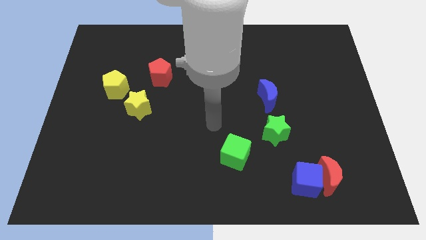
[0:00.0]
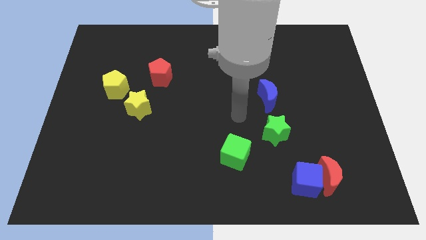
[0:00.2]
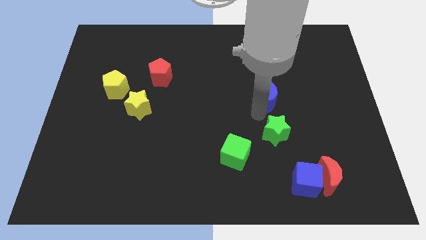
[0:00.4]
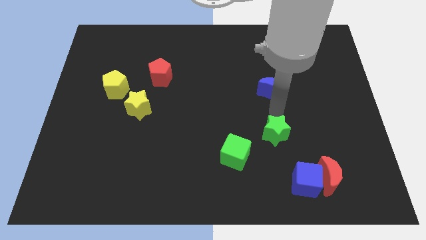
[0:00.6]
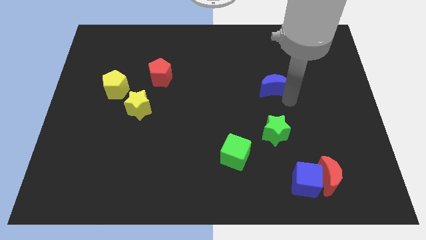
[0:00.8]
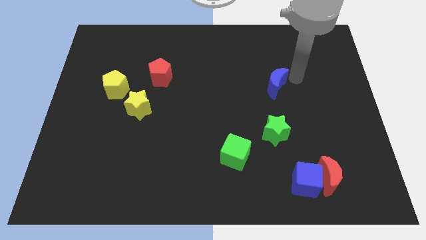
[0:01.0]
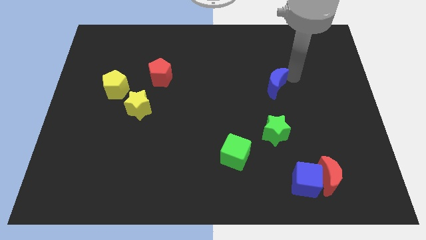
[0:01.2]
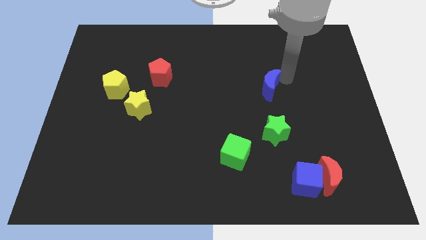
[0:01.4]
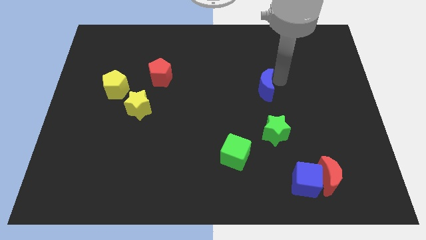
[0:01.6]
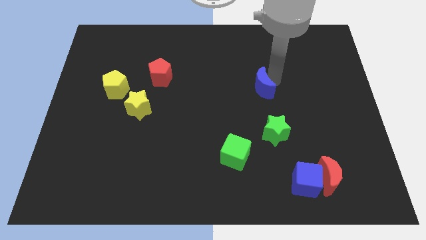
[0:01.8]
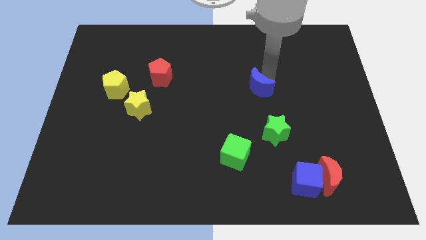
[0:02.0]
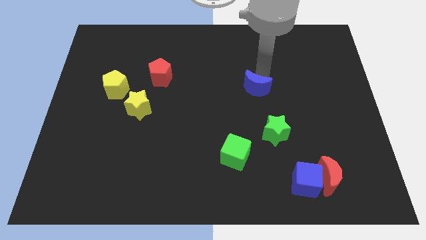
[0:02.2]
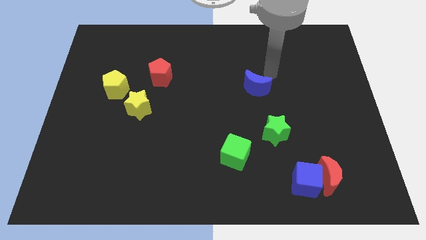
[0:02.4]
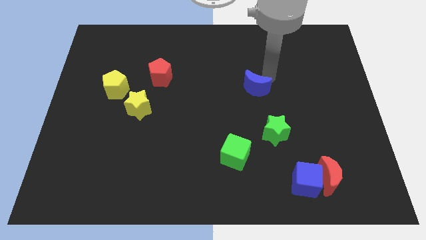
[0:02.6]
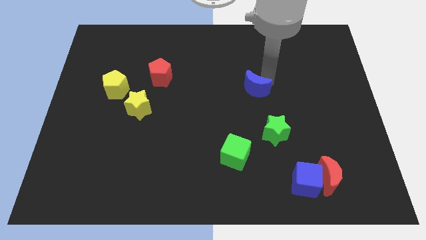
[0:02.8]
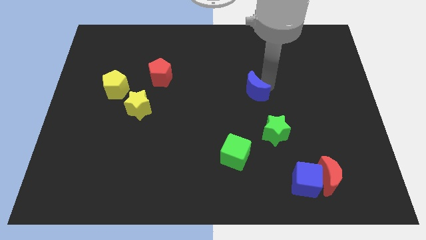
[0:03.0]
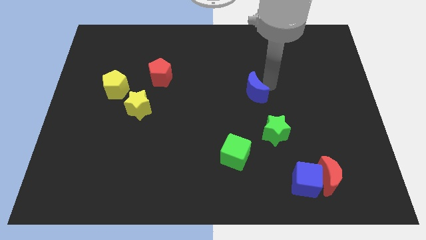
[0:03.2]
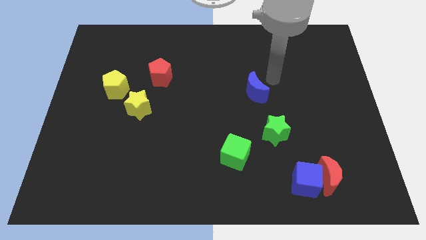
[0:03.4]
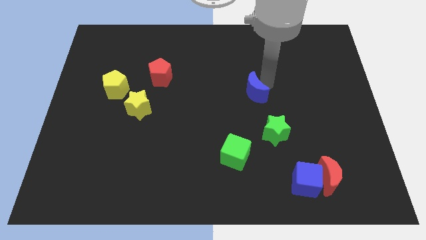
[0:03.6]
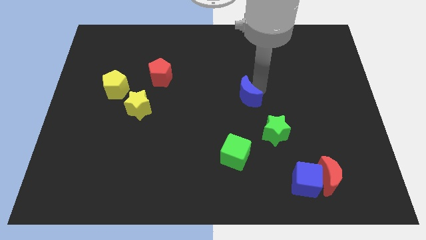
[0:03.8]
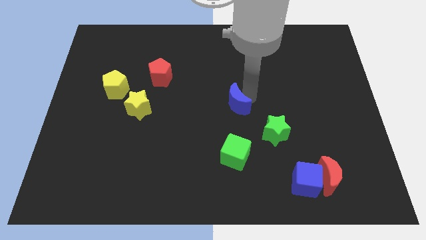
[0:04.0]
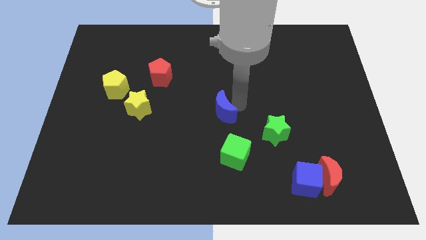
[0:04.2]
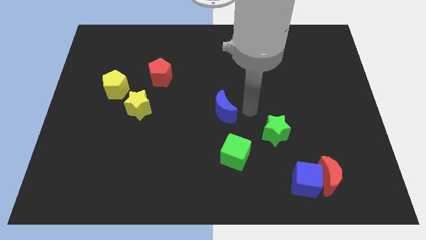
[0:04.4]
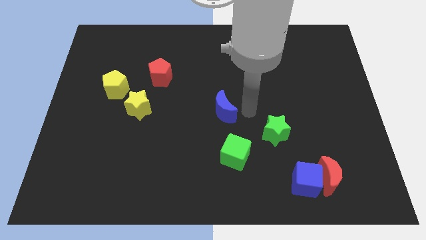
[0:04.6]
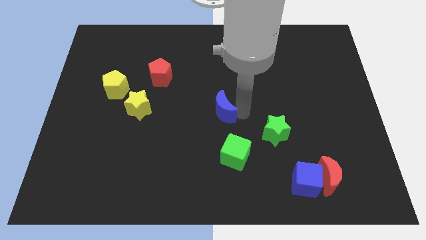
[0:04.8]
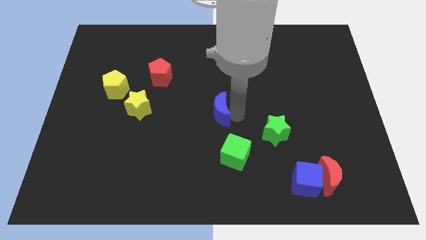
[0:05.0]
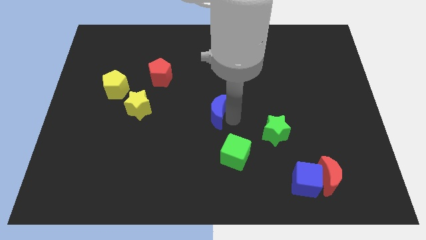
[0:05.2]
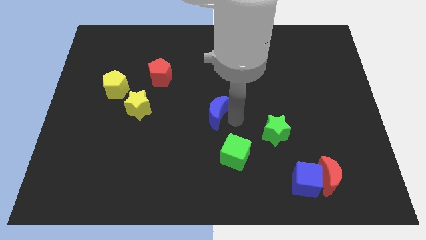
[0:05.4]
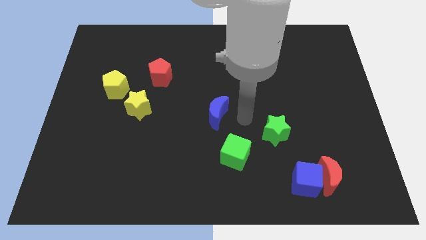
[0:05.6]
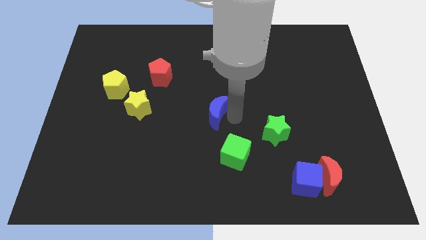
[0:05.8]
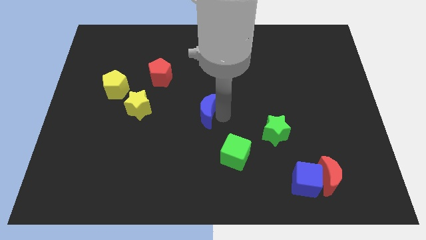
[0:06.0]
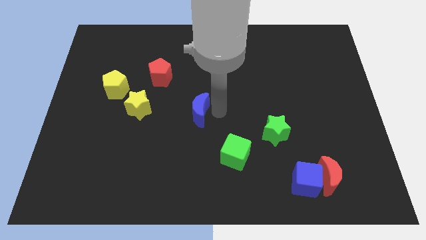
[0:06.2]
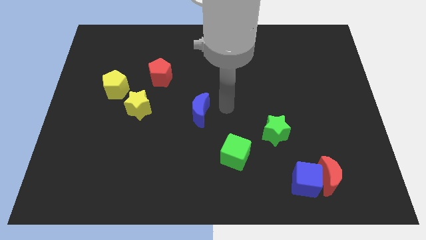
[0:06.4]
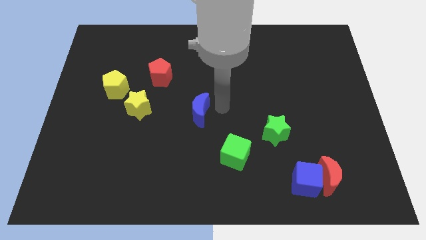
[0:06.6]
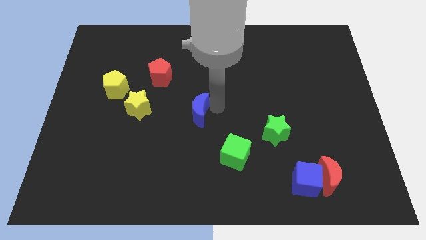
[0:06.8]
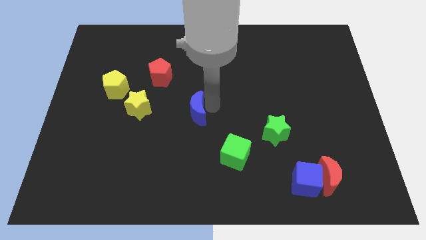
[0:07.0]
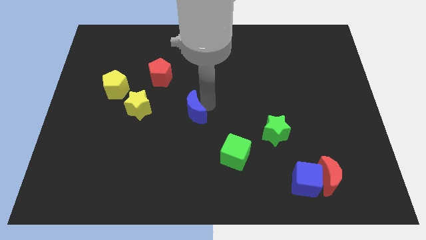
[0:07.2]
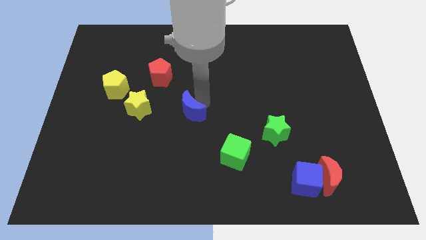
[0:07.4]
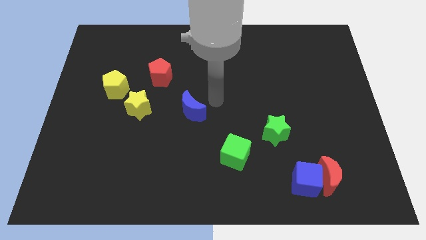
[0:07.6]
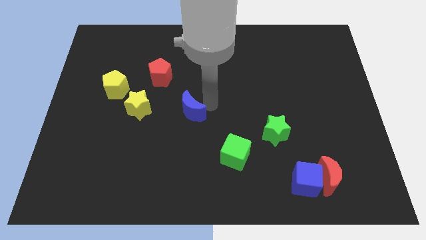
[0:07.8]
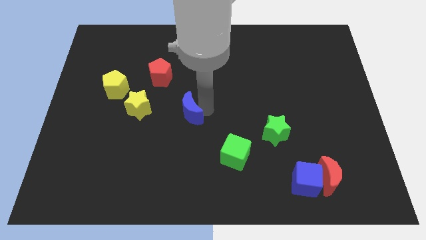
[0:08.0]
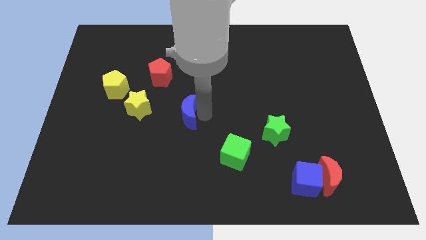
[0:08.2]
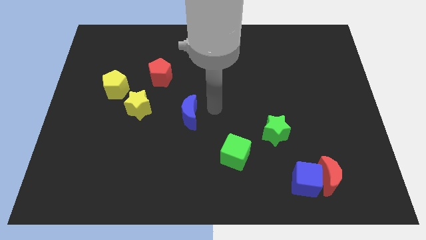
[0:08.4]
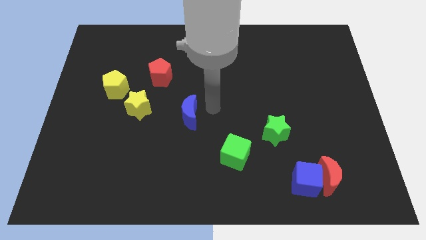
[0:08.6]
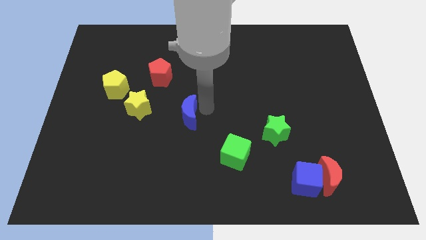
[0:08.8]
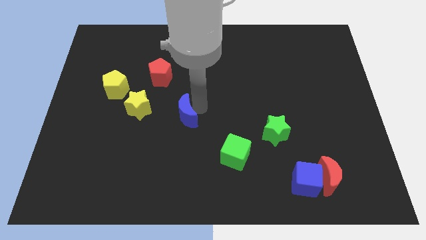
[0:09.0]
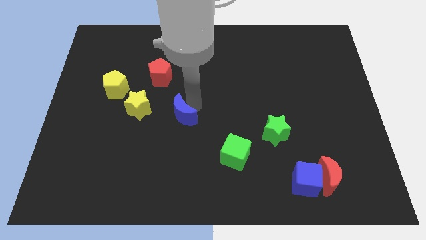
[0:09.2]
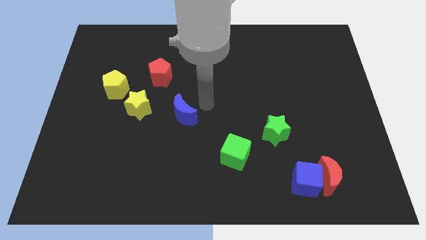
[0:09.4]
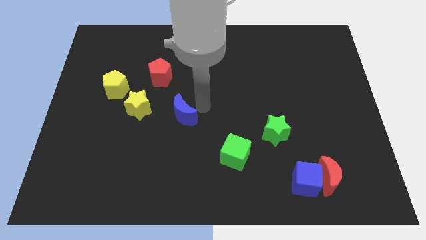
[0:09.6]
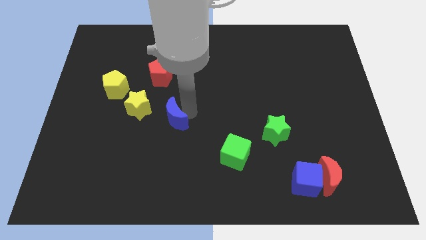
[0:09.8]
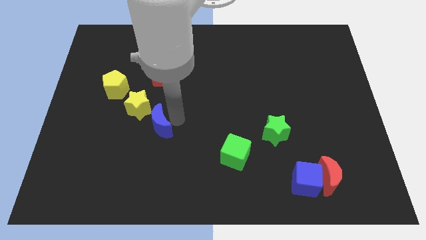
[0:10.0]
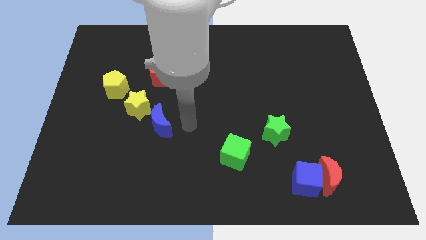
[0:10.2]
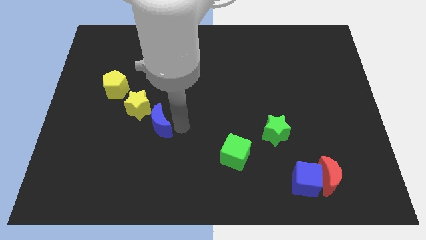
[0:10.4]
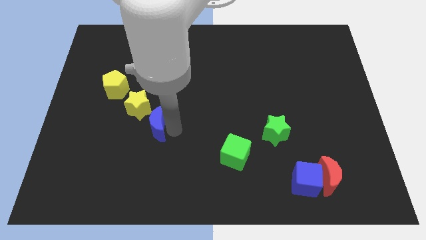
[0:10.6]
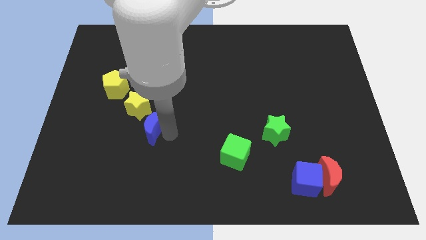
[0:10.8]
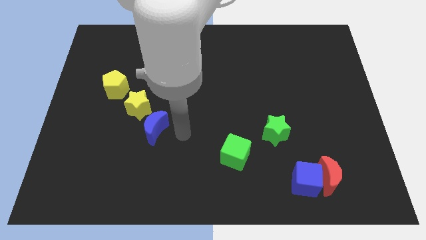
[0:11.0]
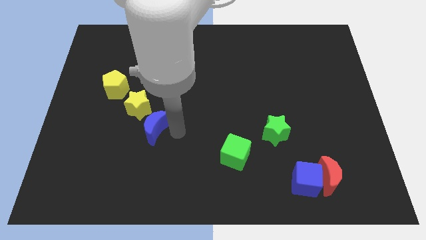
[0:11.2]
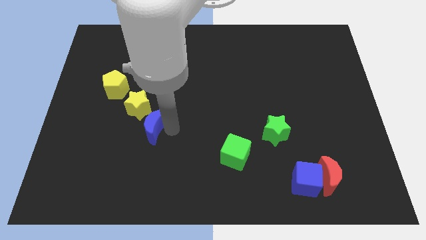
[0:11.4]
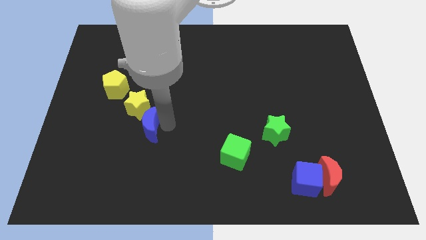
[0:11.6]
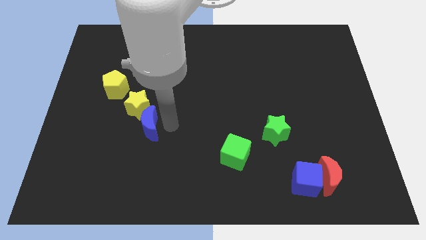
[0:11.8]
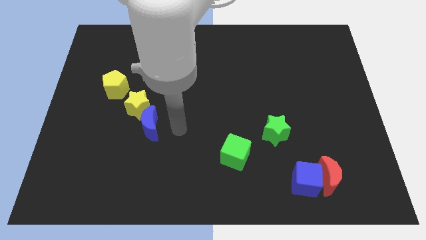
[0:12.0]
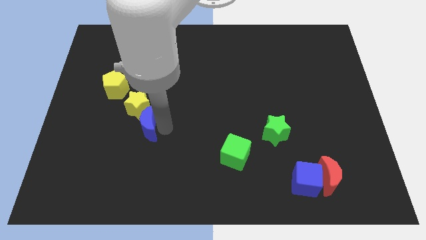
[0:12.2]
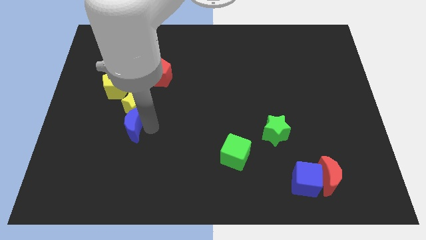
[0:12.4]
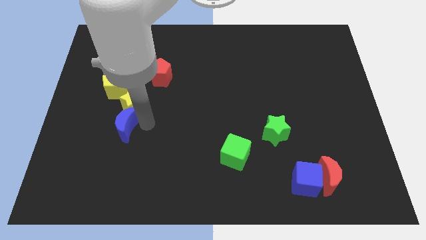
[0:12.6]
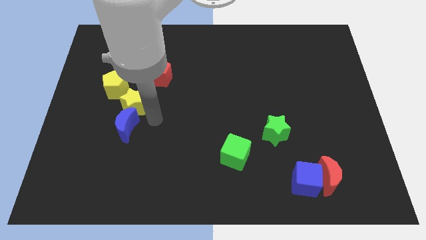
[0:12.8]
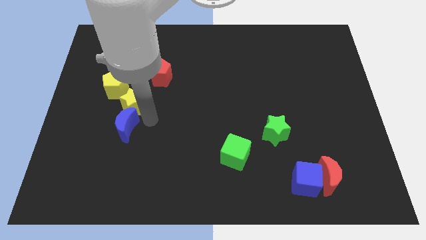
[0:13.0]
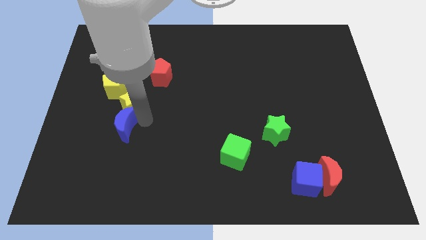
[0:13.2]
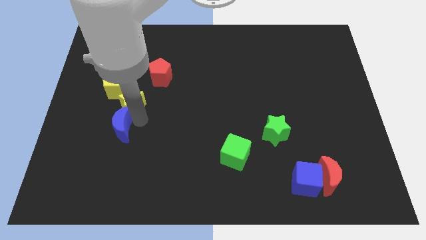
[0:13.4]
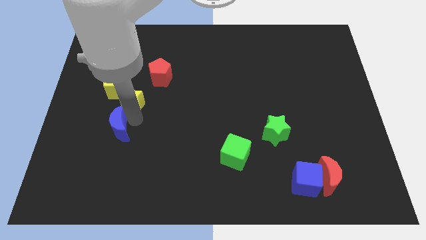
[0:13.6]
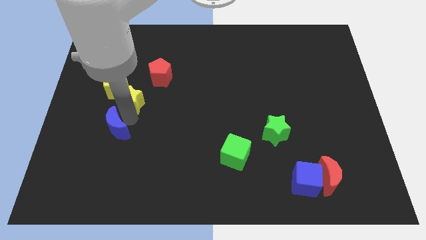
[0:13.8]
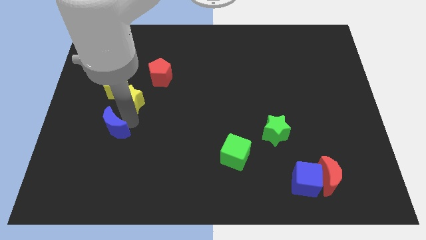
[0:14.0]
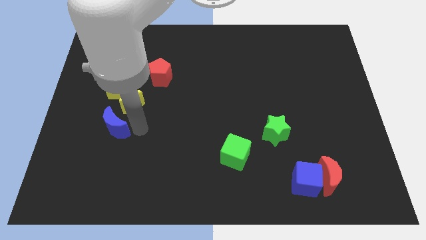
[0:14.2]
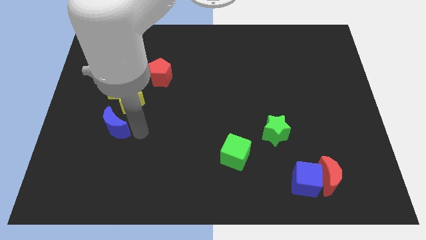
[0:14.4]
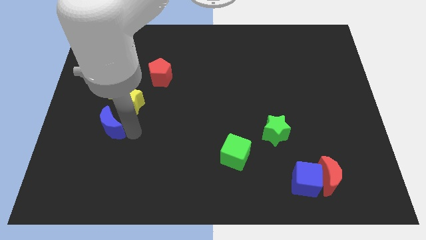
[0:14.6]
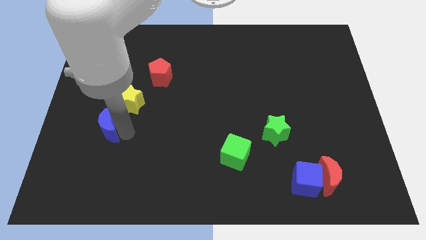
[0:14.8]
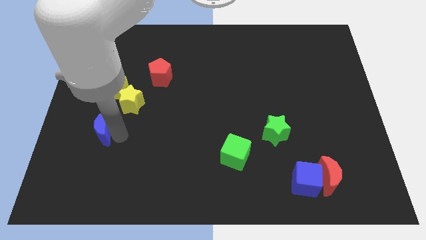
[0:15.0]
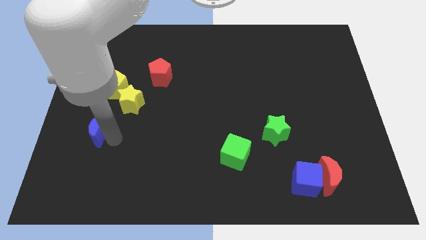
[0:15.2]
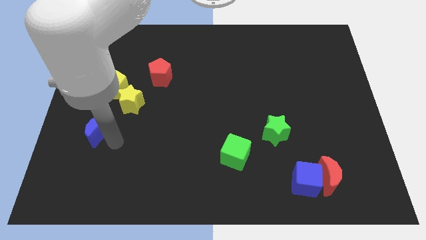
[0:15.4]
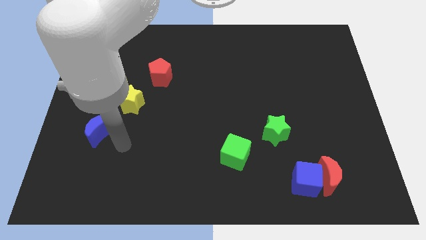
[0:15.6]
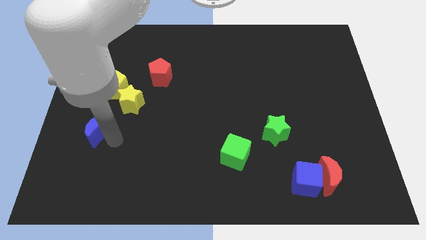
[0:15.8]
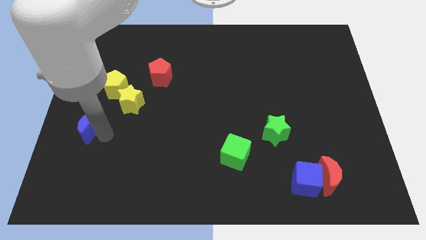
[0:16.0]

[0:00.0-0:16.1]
push the blue moon to the center left
